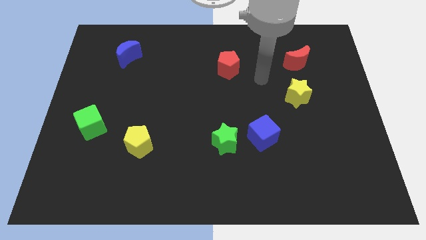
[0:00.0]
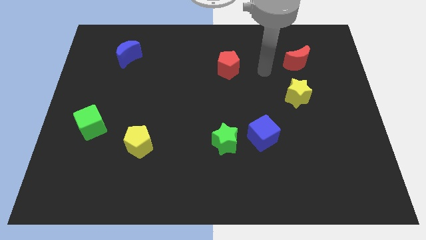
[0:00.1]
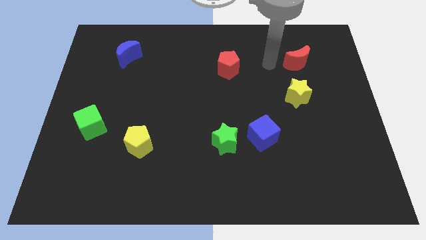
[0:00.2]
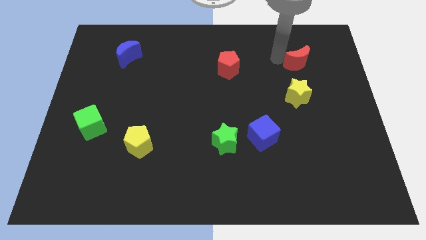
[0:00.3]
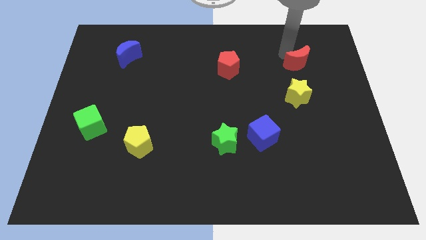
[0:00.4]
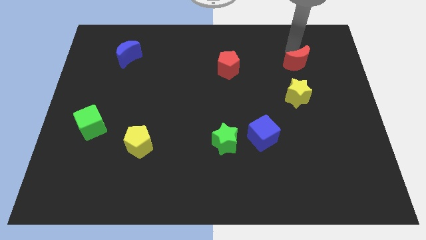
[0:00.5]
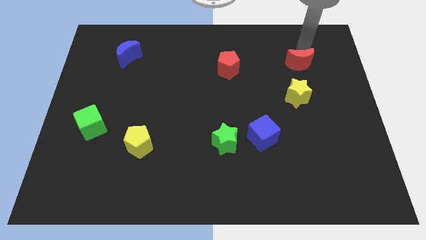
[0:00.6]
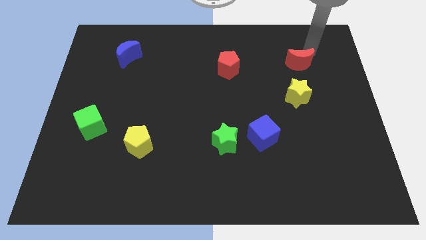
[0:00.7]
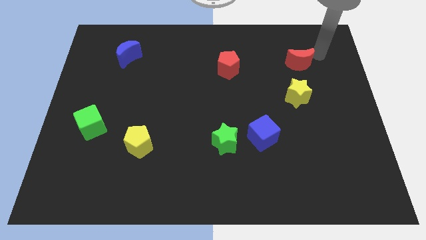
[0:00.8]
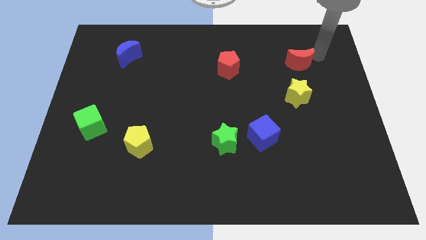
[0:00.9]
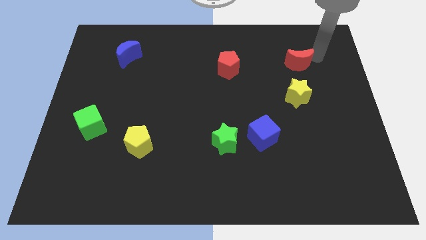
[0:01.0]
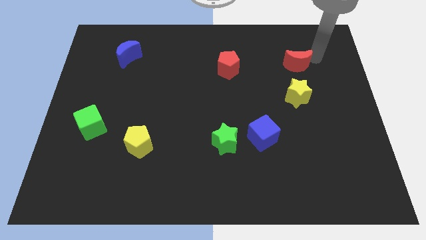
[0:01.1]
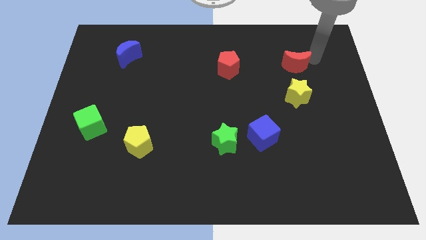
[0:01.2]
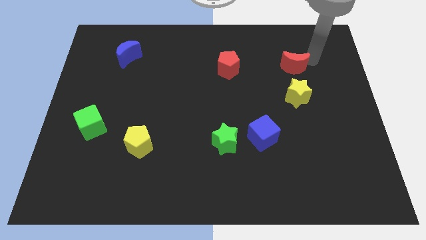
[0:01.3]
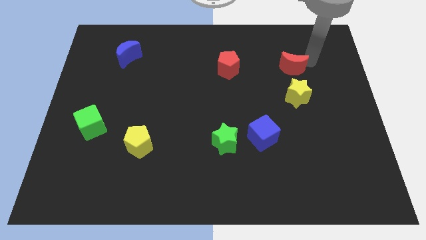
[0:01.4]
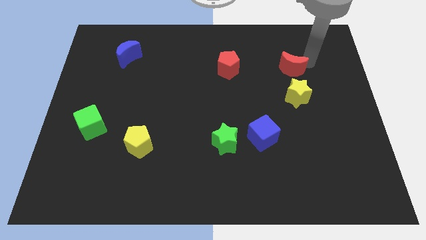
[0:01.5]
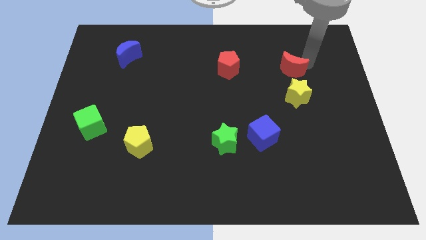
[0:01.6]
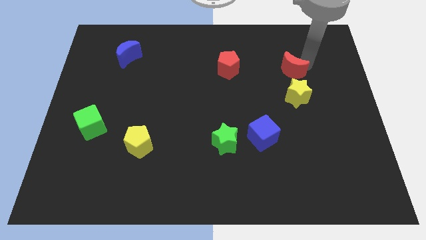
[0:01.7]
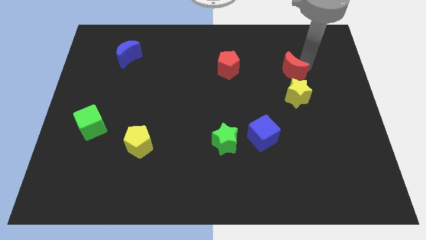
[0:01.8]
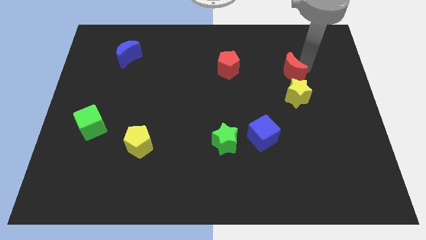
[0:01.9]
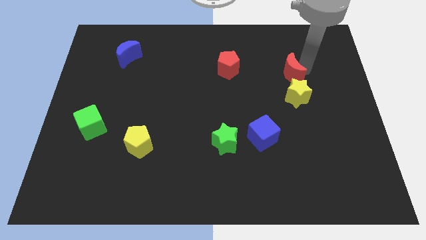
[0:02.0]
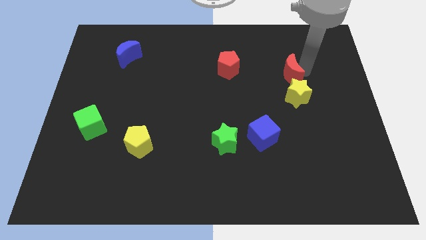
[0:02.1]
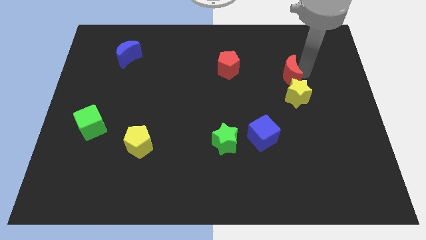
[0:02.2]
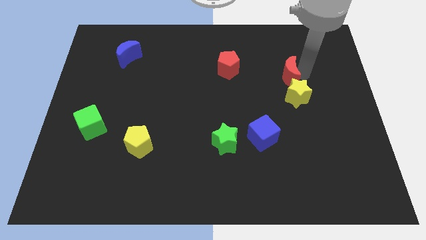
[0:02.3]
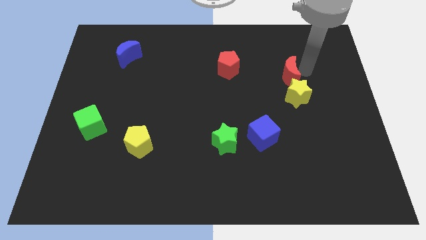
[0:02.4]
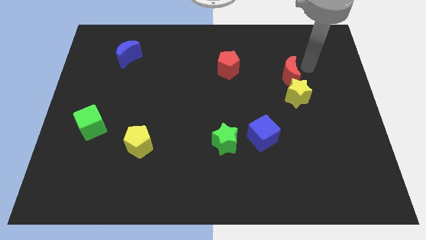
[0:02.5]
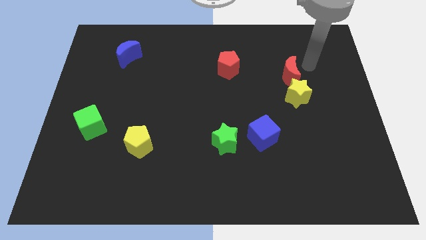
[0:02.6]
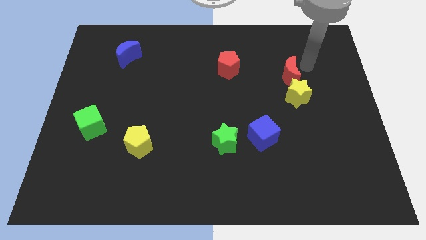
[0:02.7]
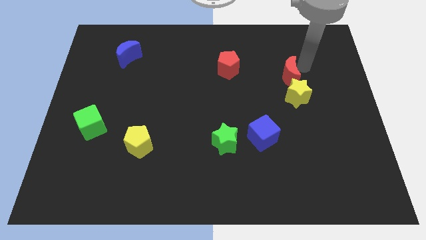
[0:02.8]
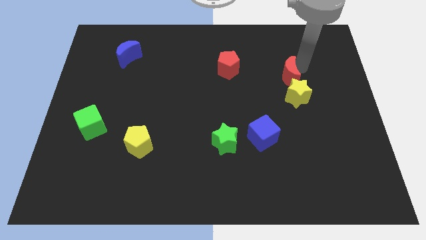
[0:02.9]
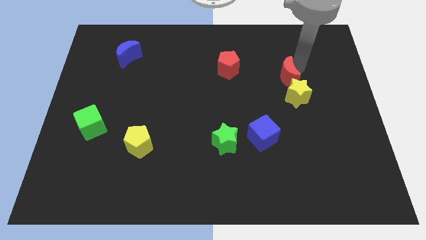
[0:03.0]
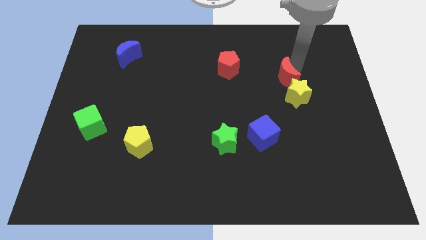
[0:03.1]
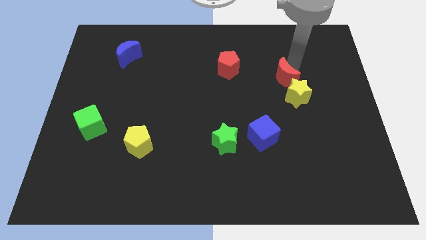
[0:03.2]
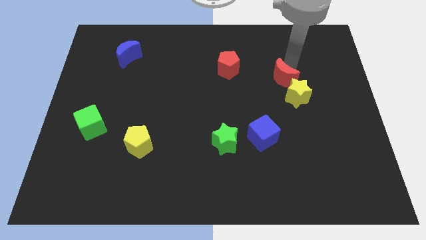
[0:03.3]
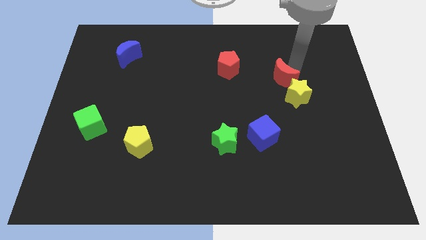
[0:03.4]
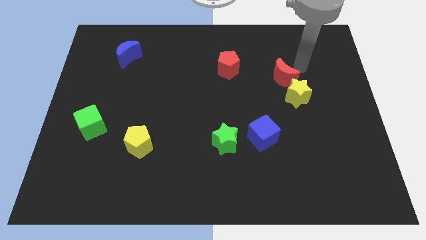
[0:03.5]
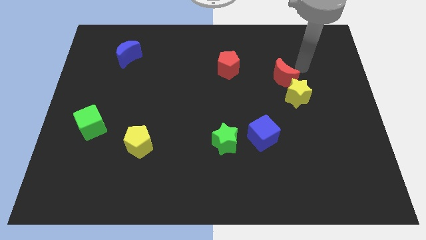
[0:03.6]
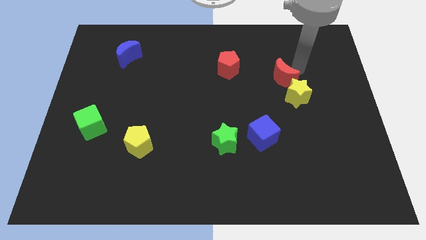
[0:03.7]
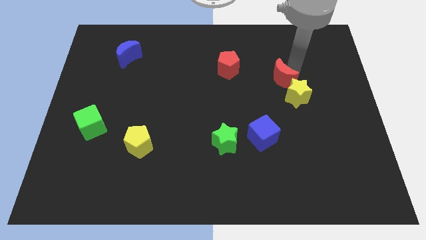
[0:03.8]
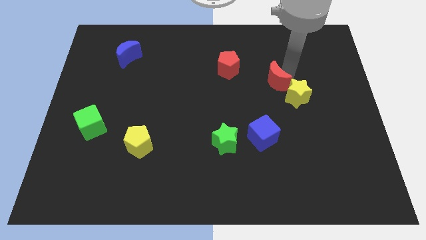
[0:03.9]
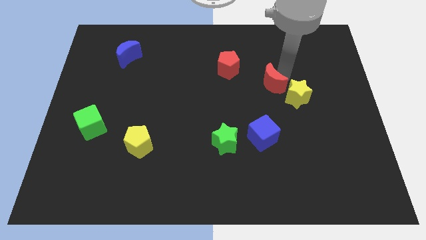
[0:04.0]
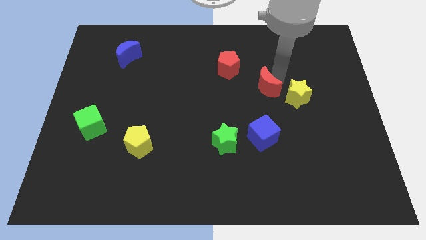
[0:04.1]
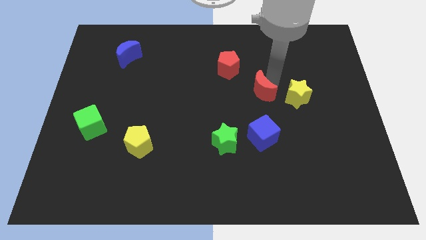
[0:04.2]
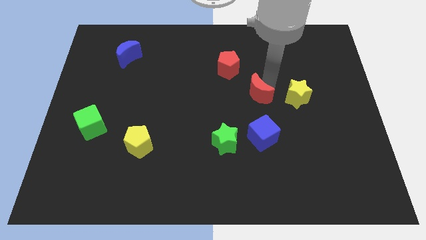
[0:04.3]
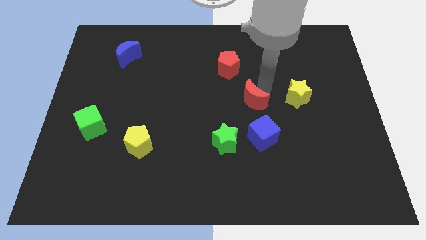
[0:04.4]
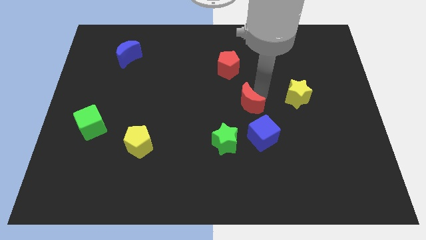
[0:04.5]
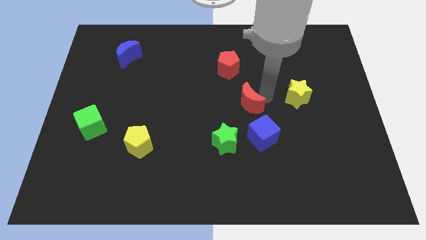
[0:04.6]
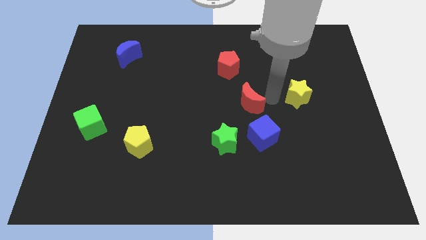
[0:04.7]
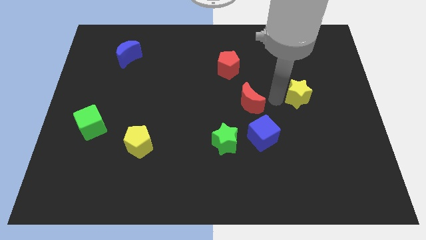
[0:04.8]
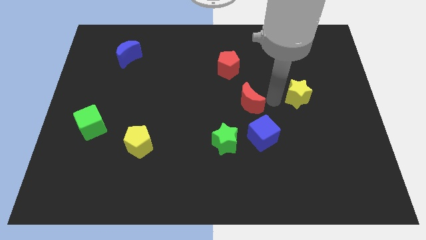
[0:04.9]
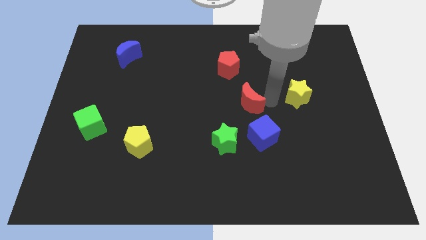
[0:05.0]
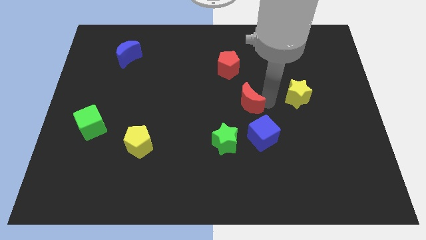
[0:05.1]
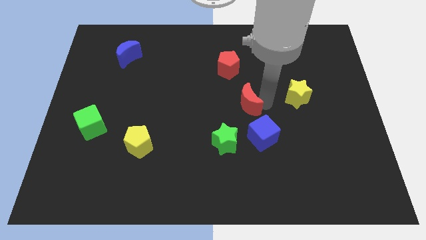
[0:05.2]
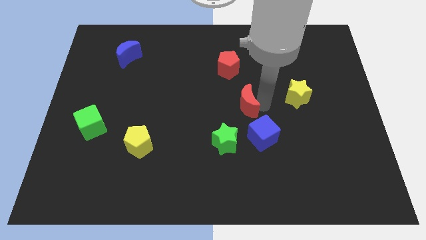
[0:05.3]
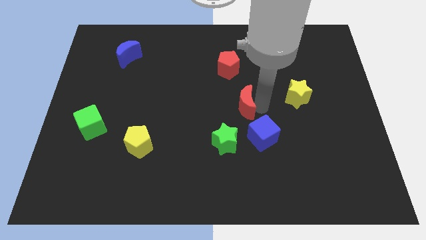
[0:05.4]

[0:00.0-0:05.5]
move the red moon to the top of the green star

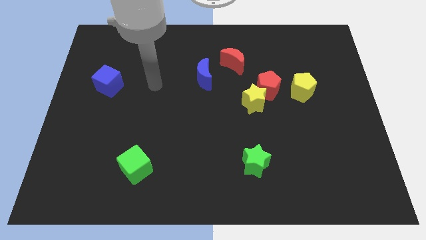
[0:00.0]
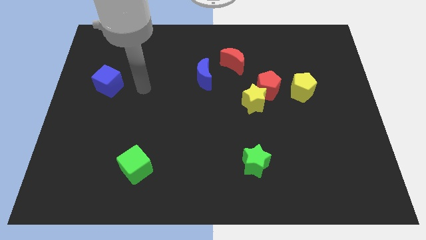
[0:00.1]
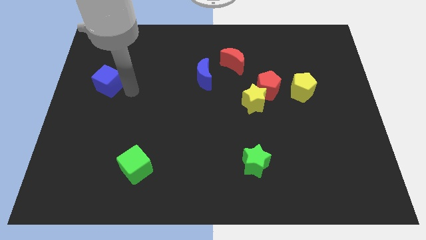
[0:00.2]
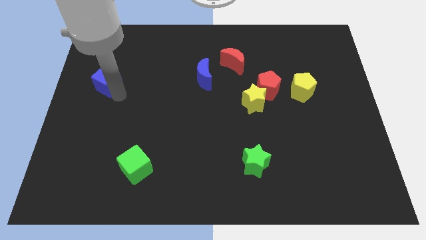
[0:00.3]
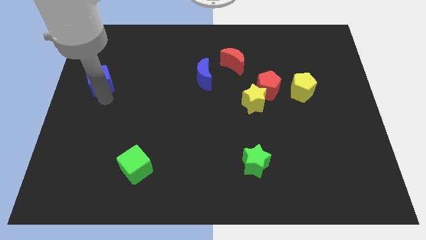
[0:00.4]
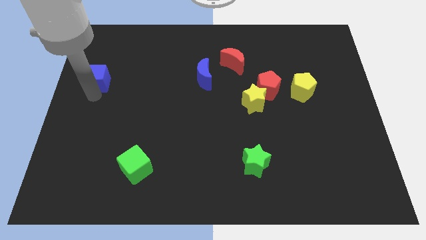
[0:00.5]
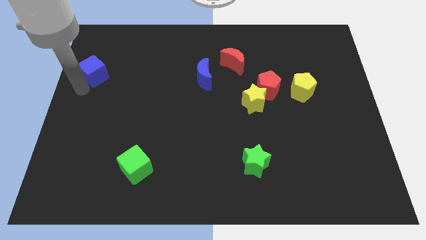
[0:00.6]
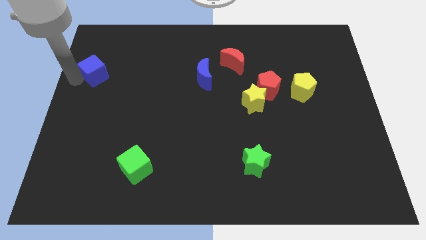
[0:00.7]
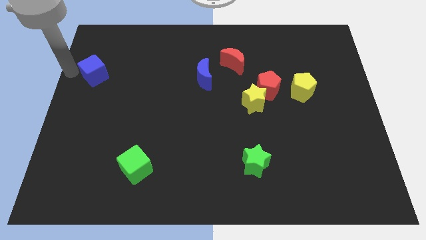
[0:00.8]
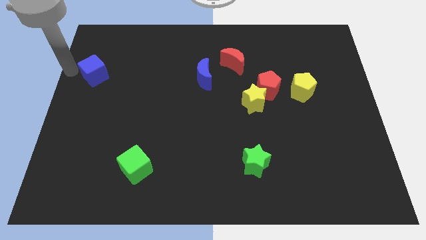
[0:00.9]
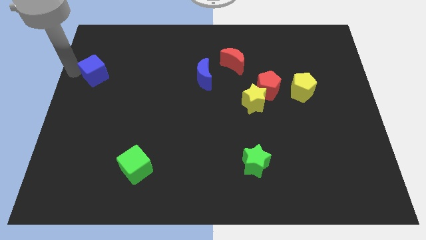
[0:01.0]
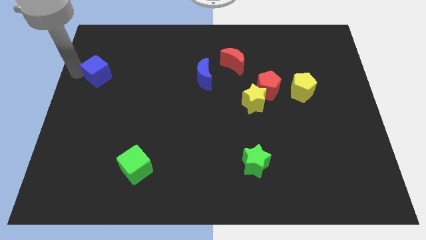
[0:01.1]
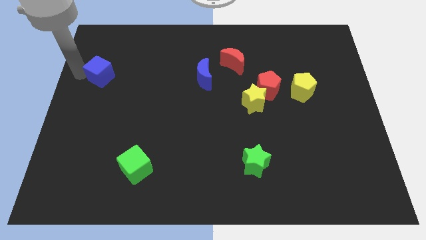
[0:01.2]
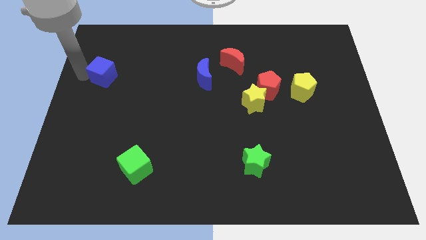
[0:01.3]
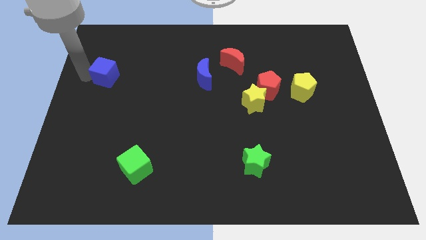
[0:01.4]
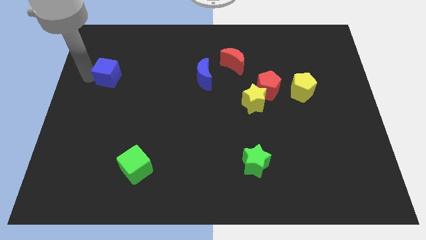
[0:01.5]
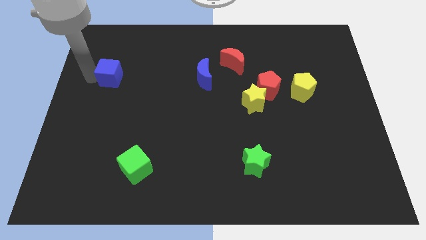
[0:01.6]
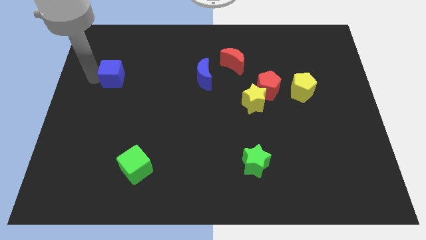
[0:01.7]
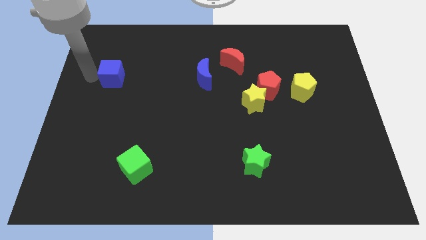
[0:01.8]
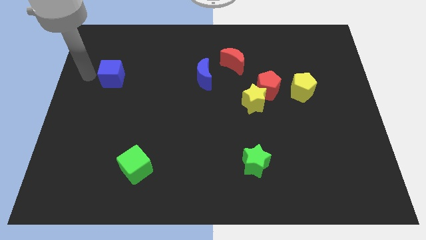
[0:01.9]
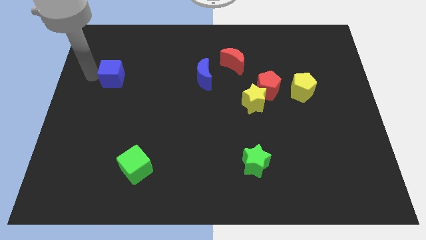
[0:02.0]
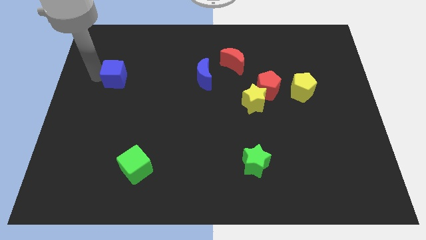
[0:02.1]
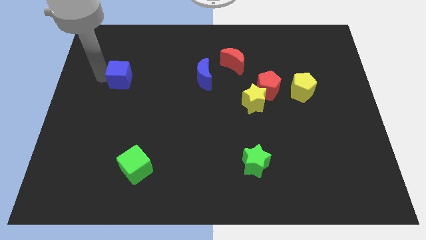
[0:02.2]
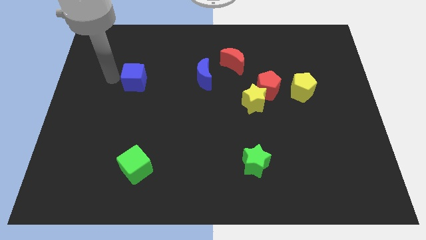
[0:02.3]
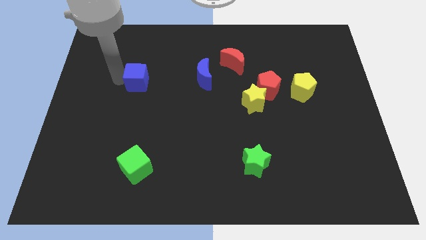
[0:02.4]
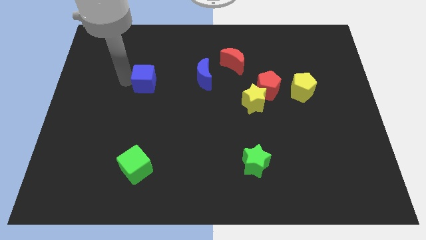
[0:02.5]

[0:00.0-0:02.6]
put the blue cube to the left of the blue moon
